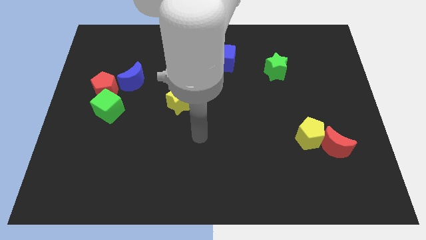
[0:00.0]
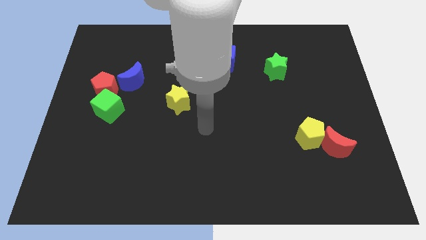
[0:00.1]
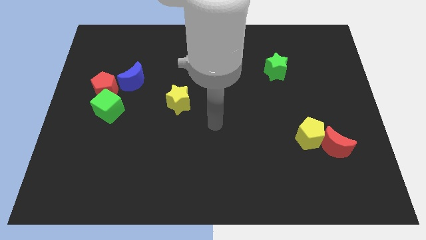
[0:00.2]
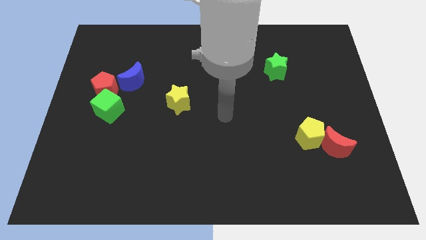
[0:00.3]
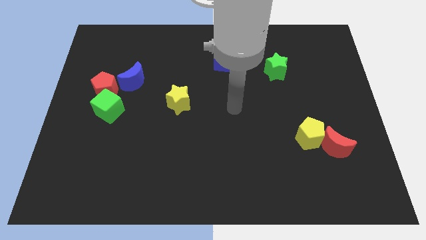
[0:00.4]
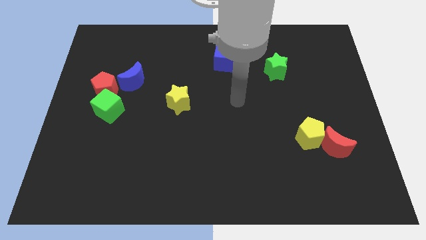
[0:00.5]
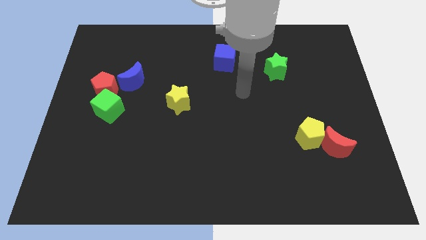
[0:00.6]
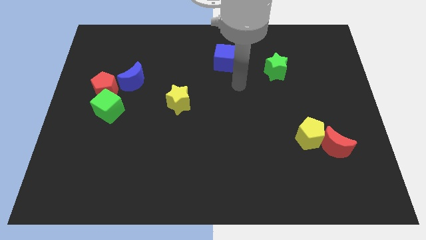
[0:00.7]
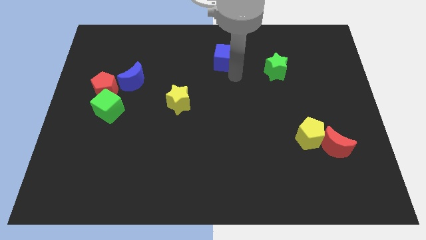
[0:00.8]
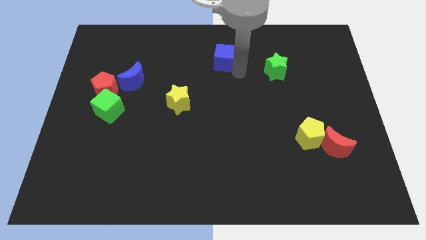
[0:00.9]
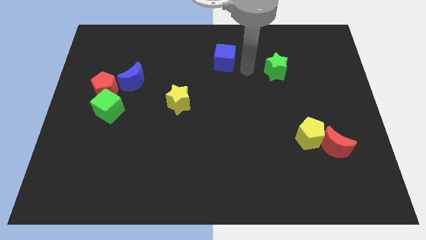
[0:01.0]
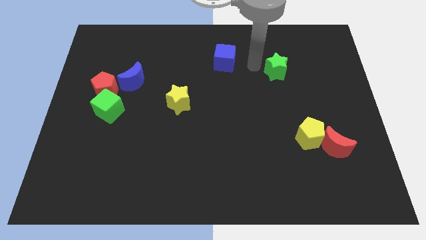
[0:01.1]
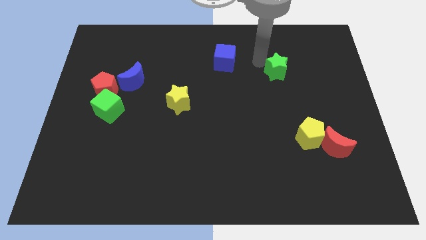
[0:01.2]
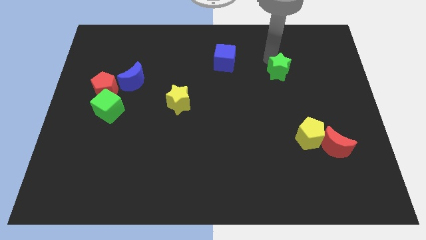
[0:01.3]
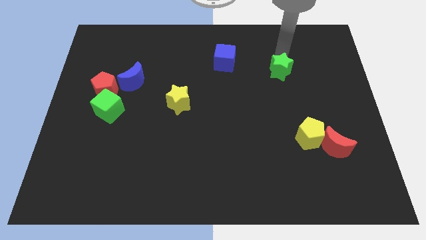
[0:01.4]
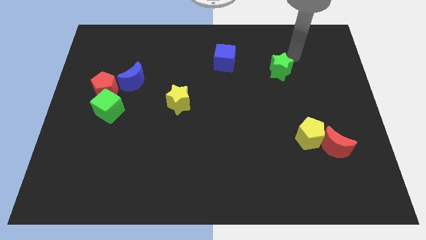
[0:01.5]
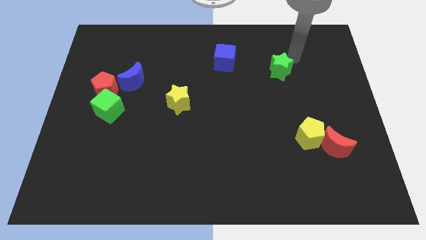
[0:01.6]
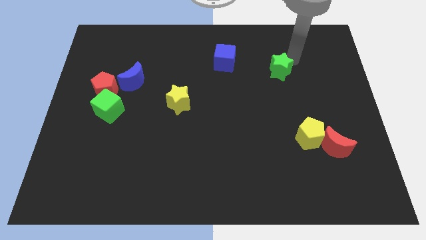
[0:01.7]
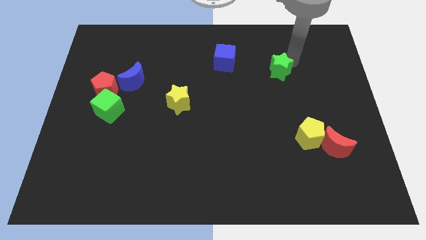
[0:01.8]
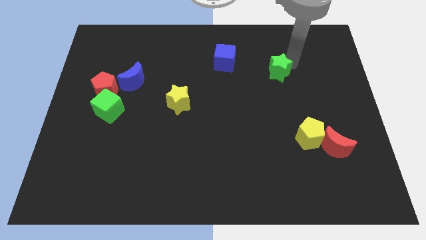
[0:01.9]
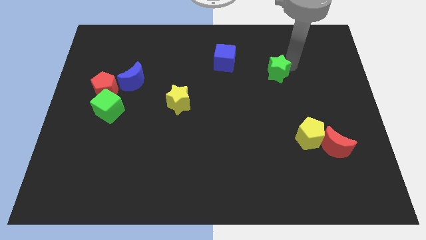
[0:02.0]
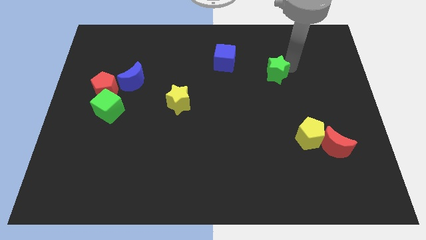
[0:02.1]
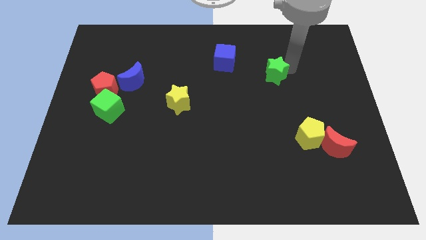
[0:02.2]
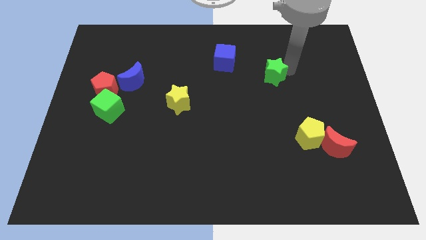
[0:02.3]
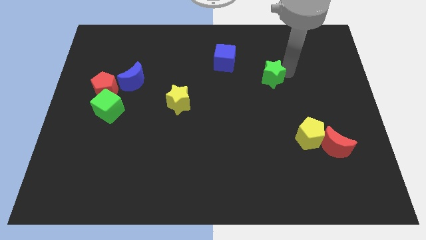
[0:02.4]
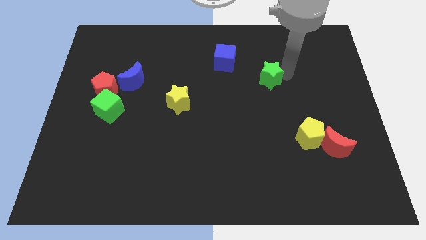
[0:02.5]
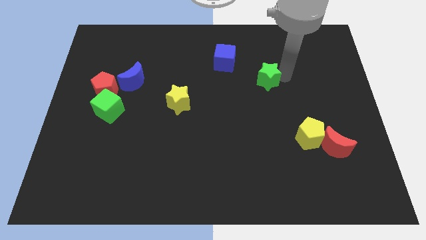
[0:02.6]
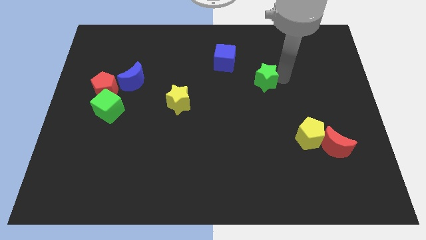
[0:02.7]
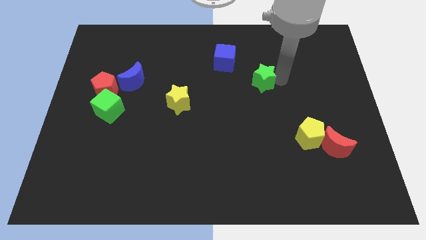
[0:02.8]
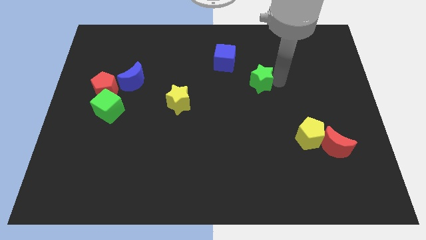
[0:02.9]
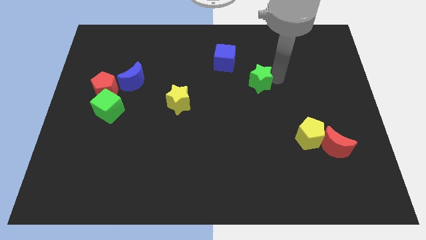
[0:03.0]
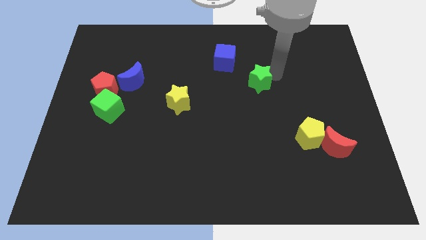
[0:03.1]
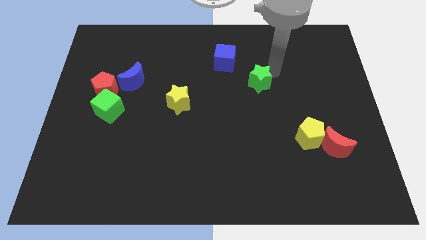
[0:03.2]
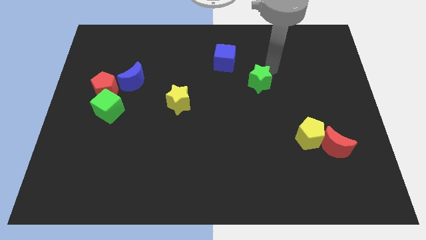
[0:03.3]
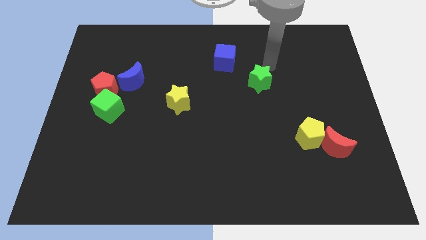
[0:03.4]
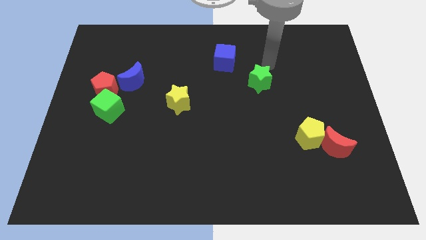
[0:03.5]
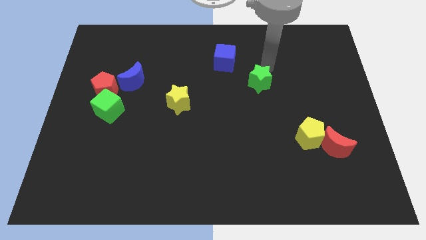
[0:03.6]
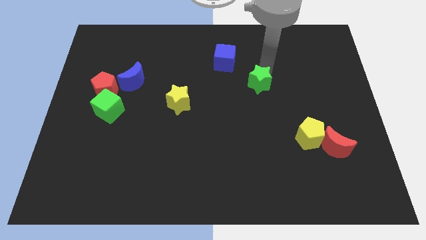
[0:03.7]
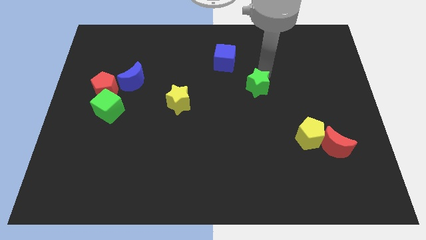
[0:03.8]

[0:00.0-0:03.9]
slightly move the green star down and to the left

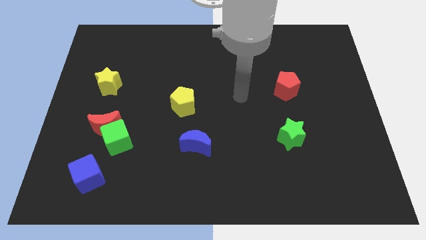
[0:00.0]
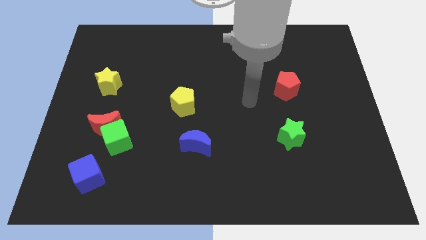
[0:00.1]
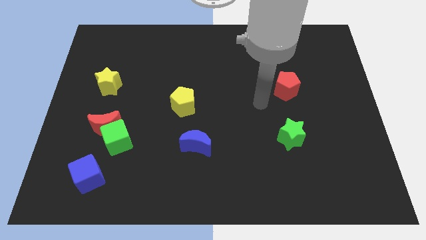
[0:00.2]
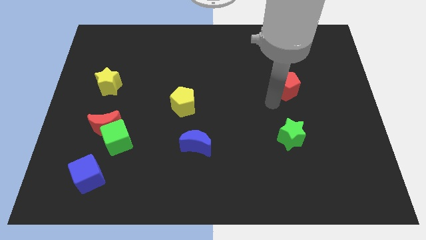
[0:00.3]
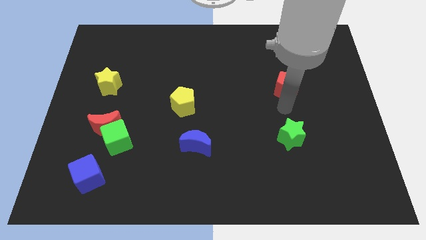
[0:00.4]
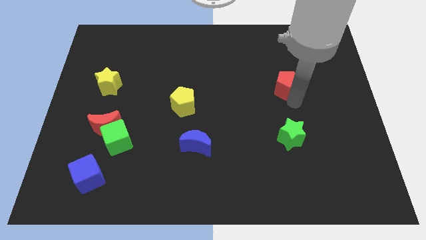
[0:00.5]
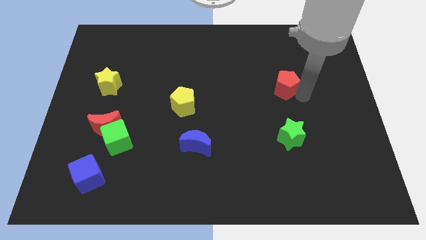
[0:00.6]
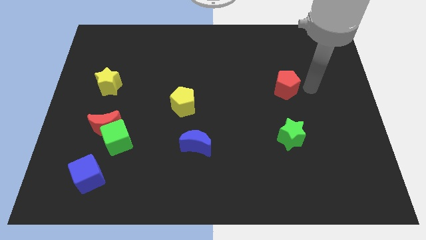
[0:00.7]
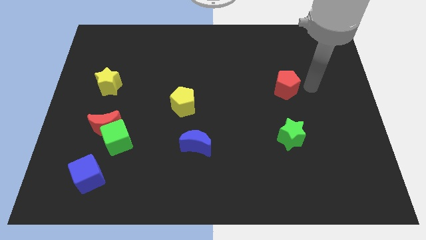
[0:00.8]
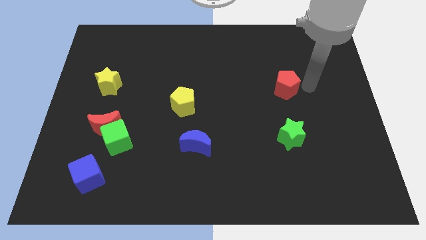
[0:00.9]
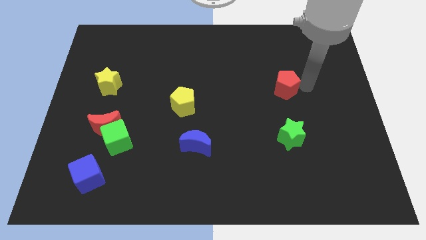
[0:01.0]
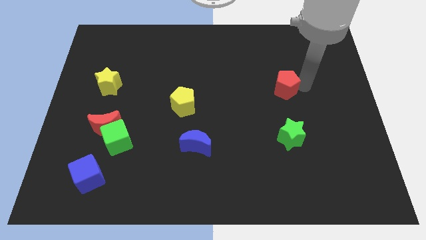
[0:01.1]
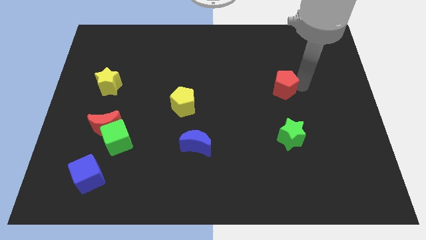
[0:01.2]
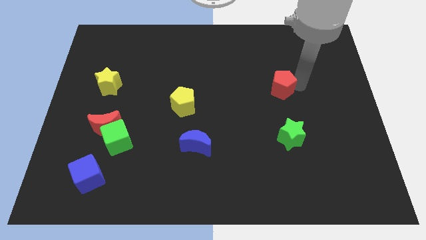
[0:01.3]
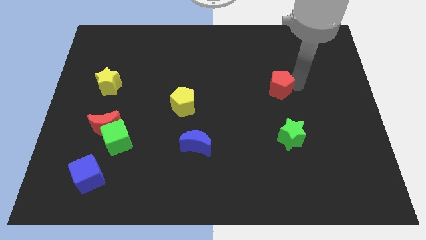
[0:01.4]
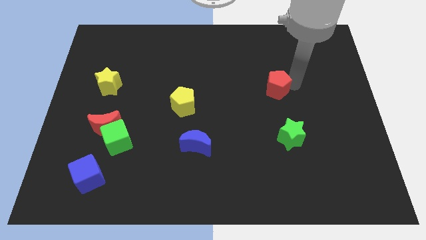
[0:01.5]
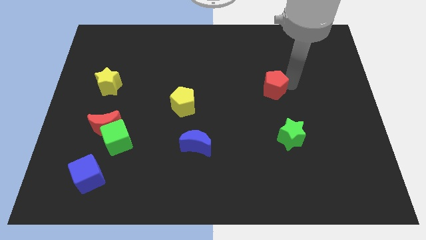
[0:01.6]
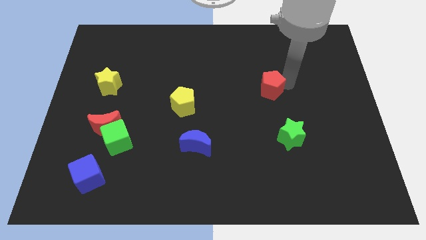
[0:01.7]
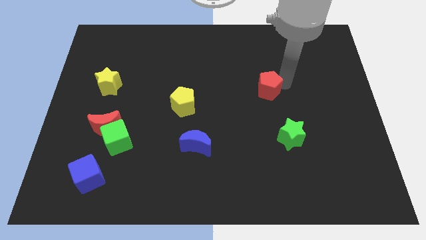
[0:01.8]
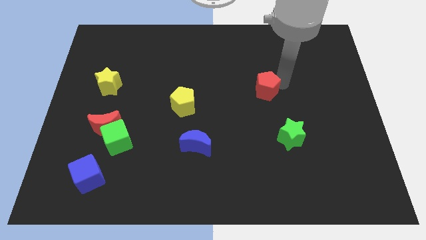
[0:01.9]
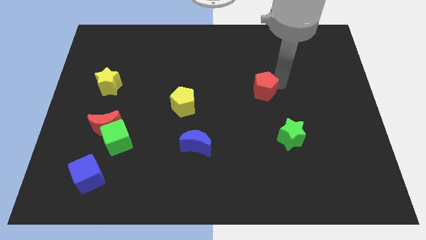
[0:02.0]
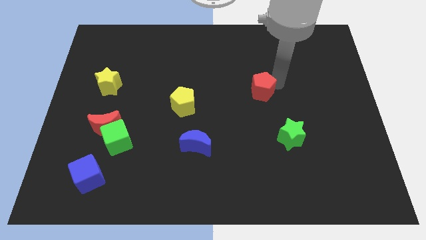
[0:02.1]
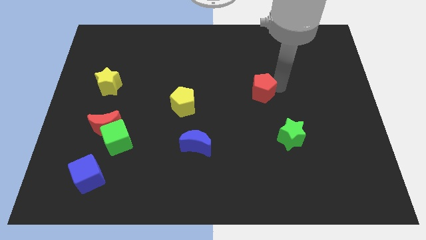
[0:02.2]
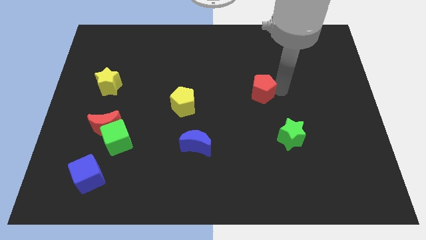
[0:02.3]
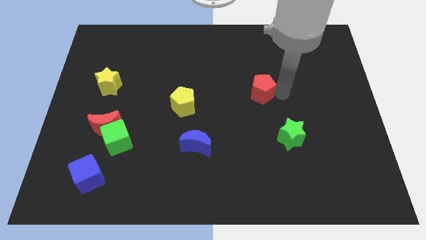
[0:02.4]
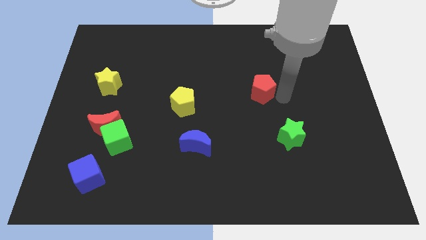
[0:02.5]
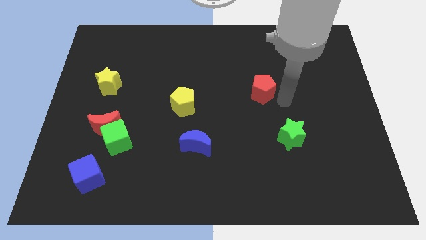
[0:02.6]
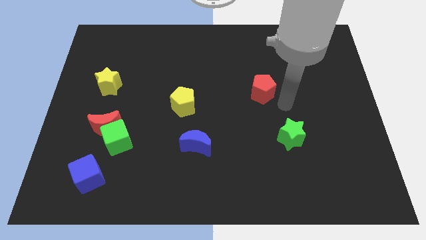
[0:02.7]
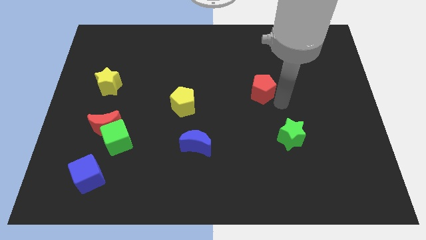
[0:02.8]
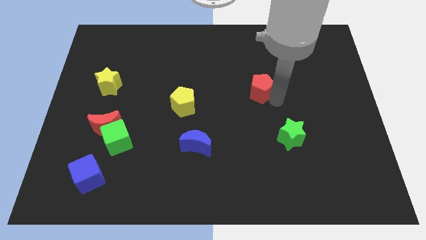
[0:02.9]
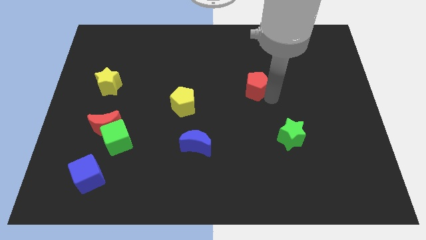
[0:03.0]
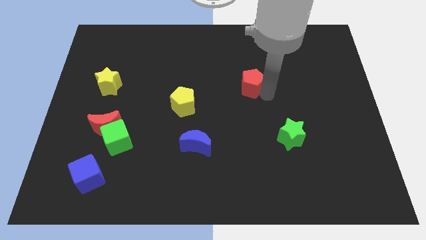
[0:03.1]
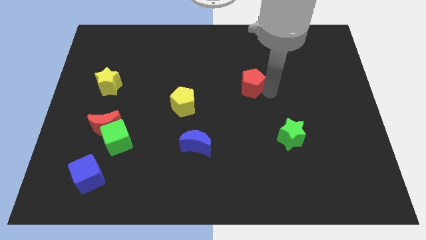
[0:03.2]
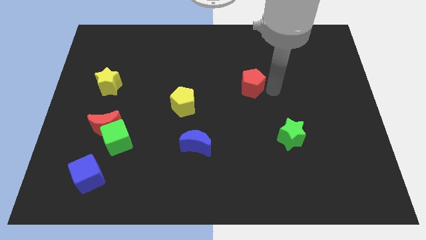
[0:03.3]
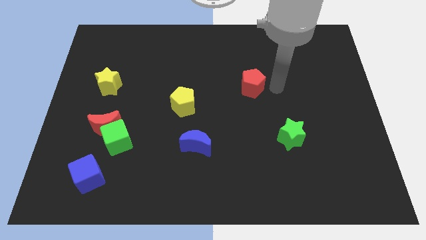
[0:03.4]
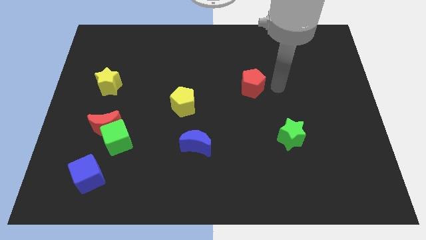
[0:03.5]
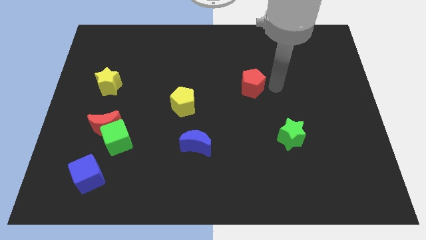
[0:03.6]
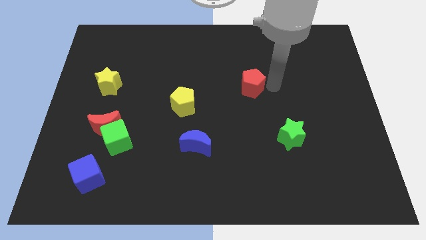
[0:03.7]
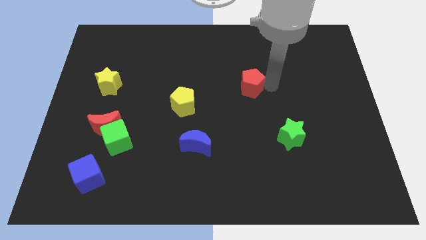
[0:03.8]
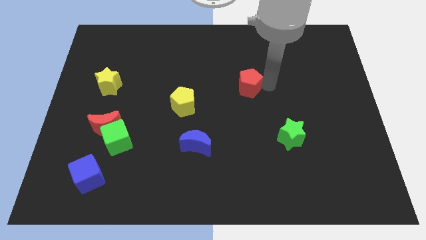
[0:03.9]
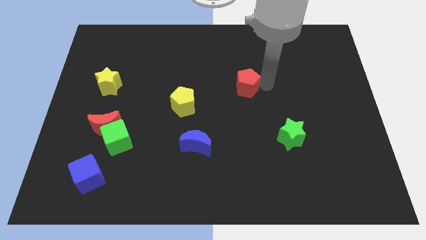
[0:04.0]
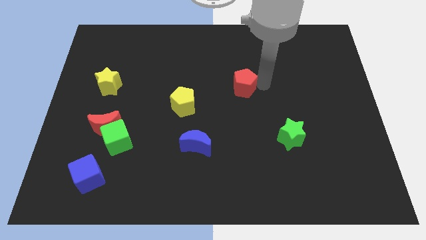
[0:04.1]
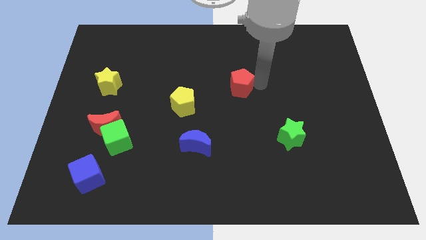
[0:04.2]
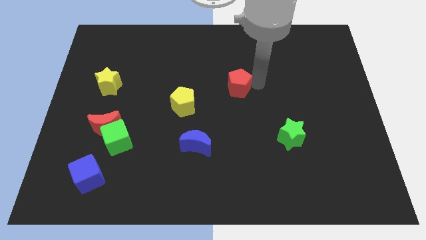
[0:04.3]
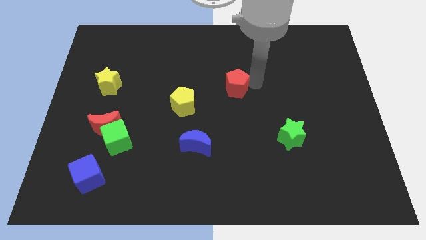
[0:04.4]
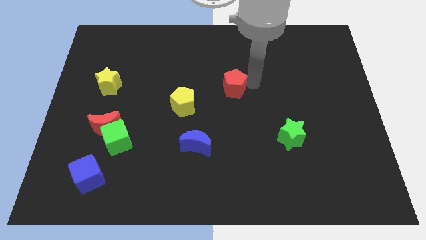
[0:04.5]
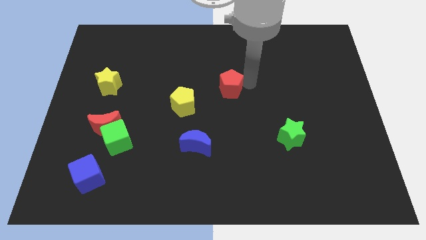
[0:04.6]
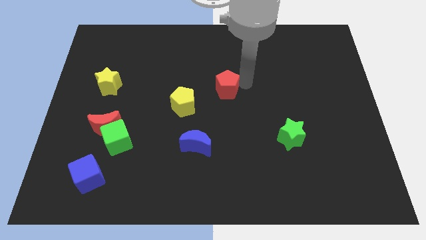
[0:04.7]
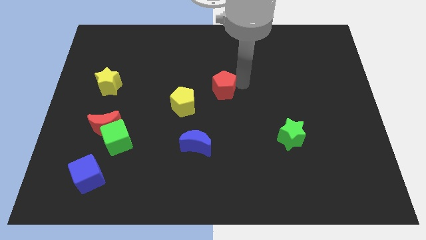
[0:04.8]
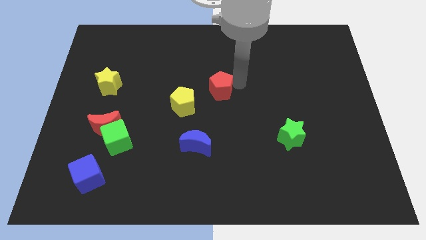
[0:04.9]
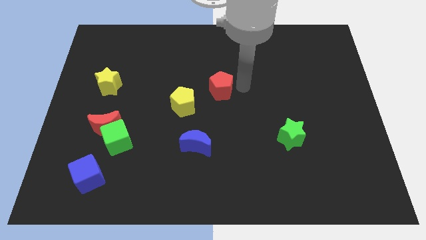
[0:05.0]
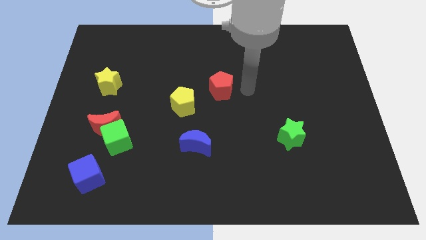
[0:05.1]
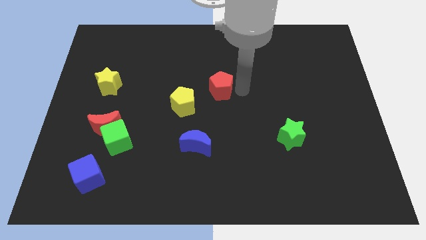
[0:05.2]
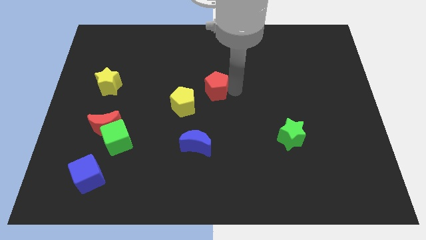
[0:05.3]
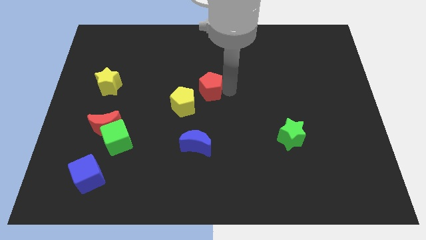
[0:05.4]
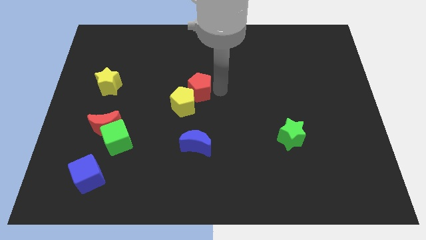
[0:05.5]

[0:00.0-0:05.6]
push the red pentagon left
